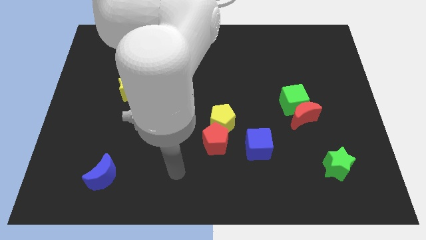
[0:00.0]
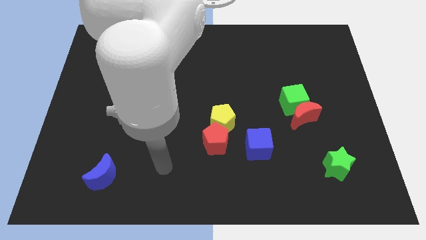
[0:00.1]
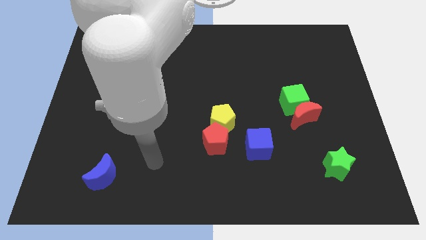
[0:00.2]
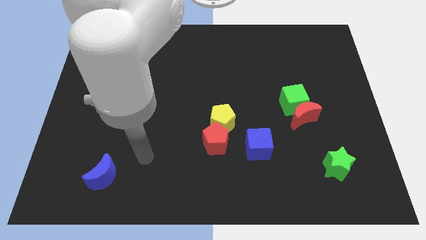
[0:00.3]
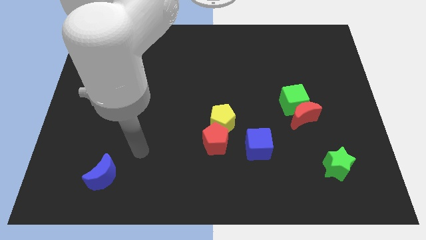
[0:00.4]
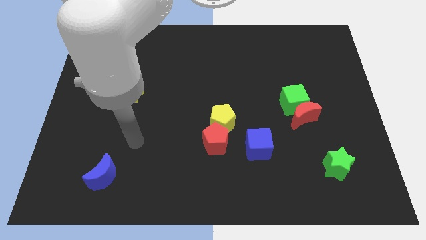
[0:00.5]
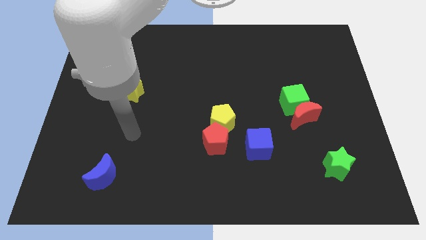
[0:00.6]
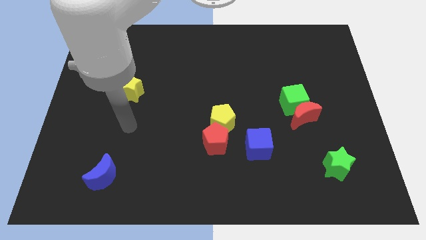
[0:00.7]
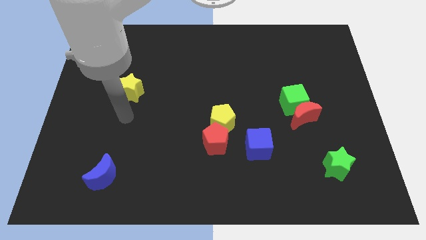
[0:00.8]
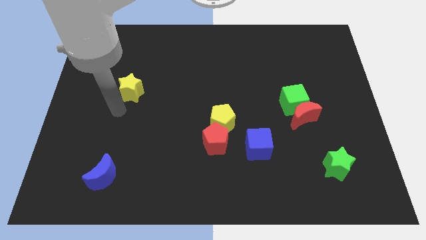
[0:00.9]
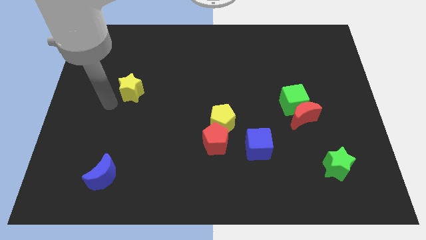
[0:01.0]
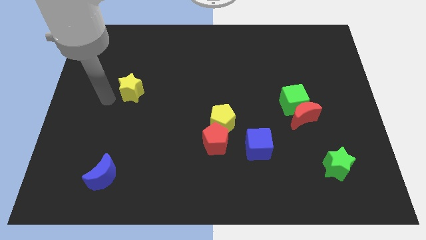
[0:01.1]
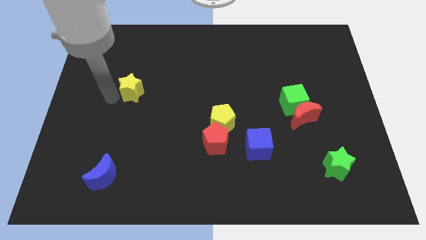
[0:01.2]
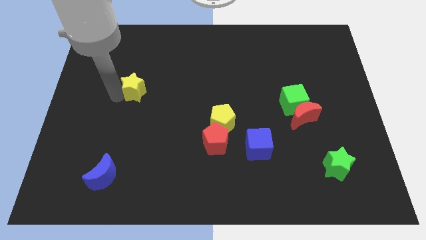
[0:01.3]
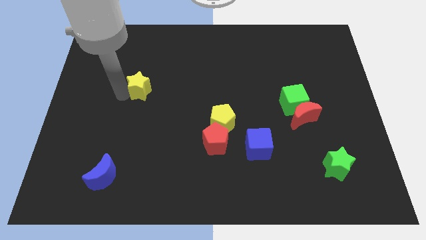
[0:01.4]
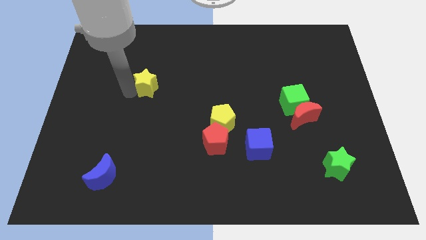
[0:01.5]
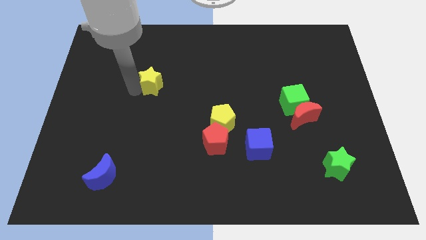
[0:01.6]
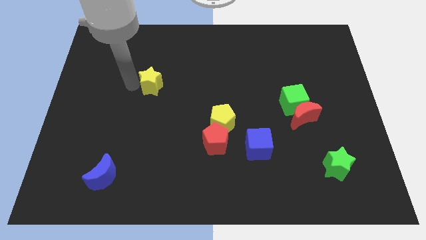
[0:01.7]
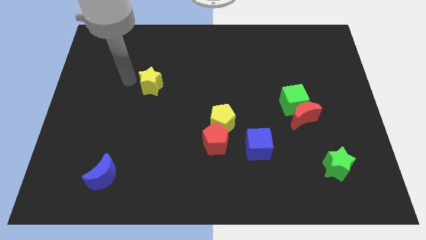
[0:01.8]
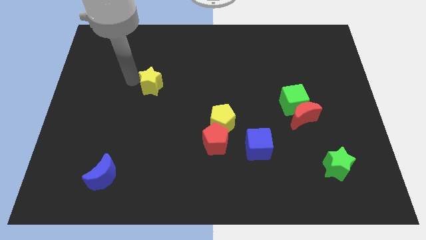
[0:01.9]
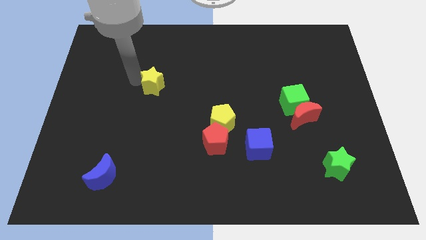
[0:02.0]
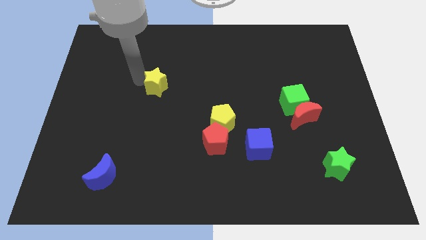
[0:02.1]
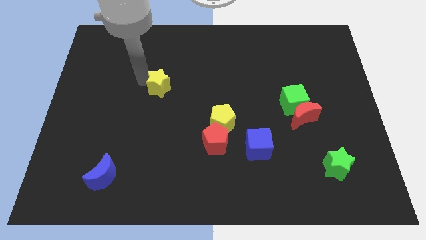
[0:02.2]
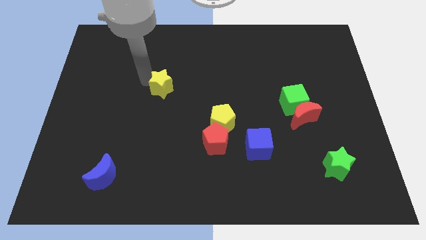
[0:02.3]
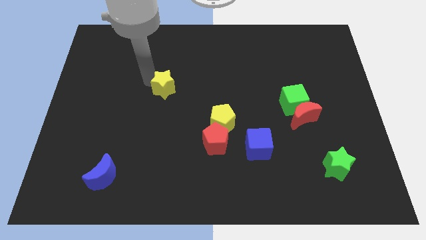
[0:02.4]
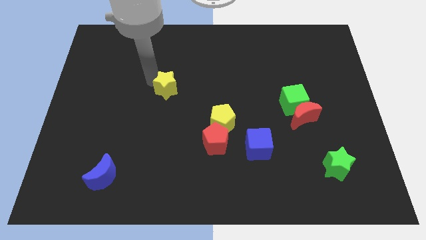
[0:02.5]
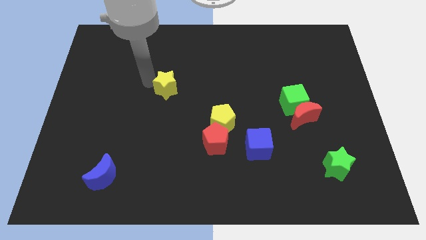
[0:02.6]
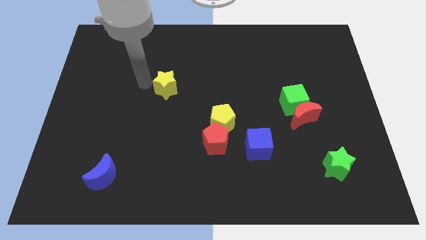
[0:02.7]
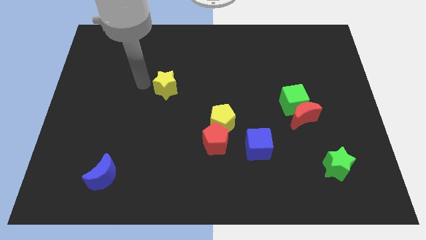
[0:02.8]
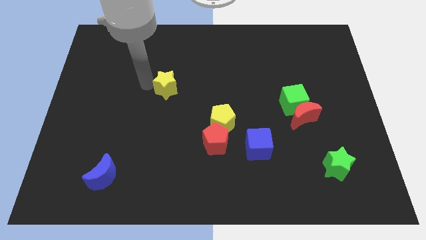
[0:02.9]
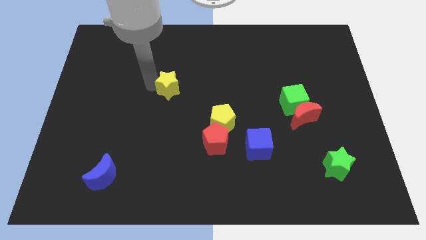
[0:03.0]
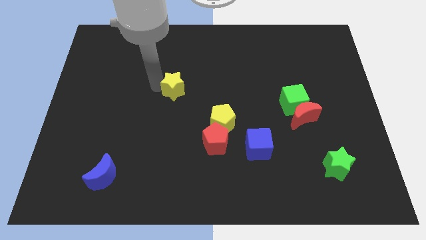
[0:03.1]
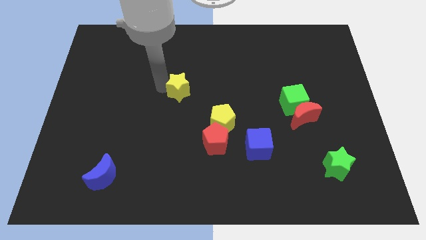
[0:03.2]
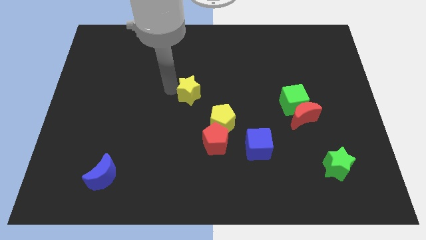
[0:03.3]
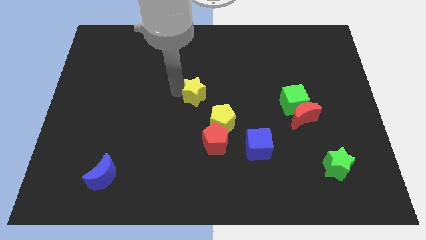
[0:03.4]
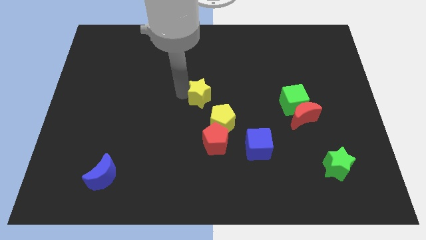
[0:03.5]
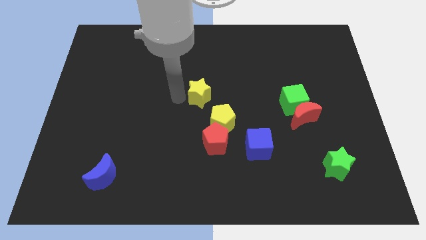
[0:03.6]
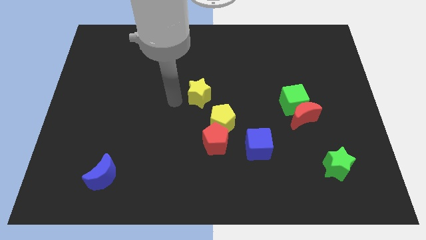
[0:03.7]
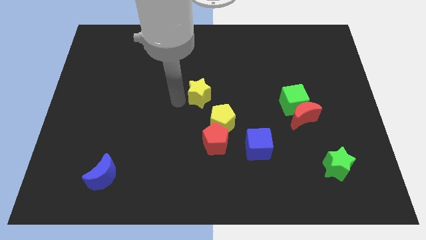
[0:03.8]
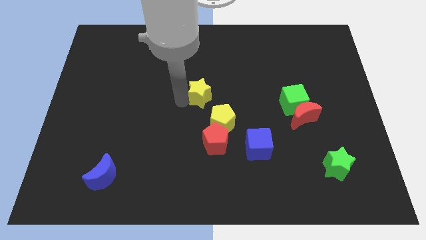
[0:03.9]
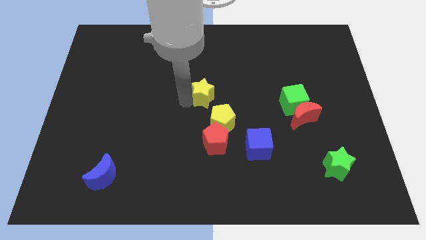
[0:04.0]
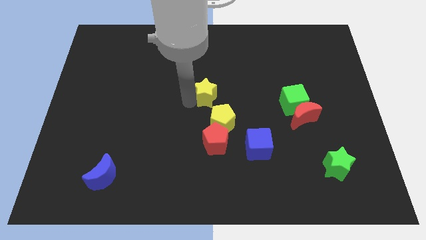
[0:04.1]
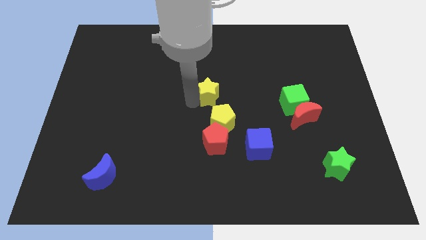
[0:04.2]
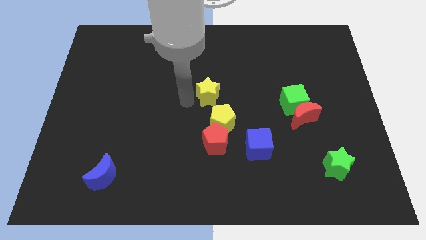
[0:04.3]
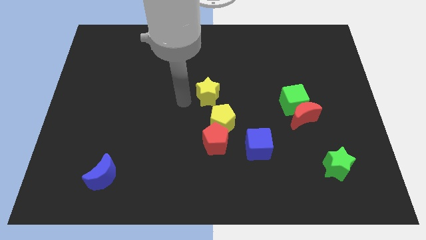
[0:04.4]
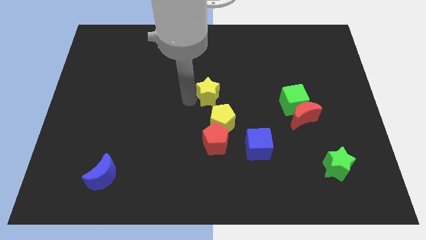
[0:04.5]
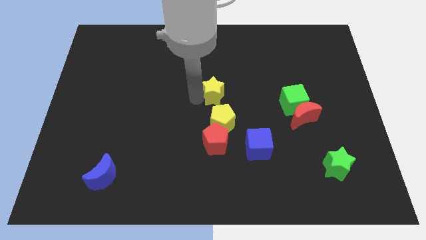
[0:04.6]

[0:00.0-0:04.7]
slide the yellow star right

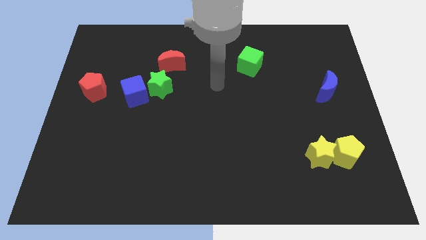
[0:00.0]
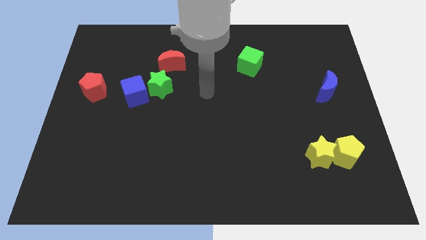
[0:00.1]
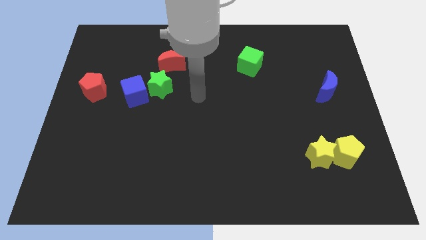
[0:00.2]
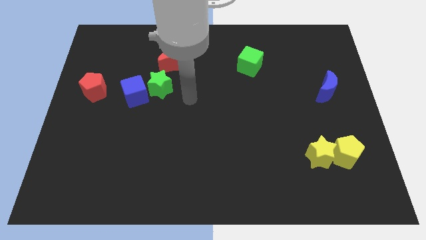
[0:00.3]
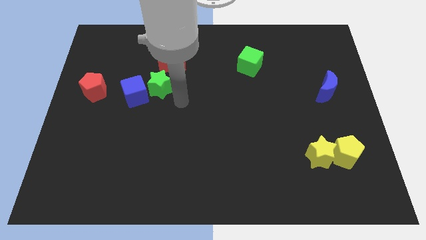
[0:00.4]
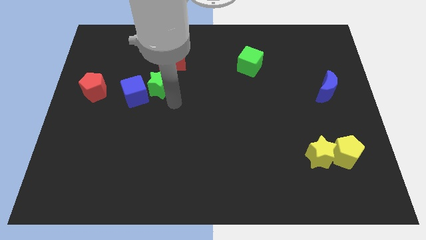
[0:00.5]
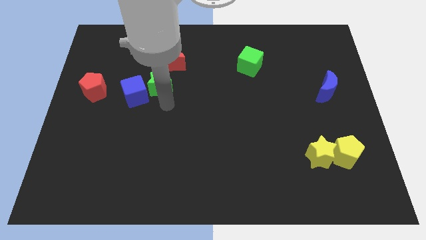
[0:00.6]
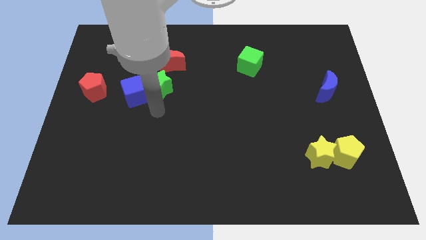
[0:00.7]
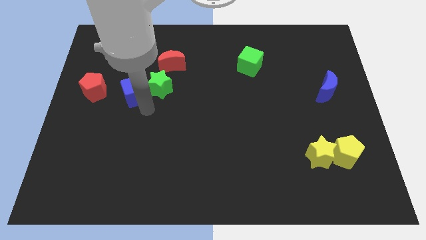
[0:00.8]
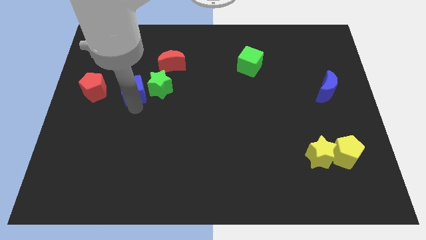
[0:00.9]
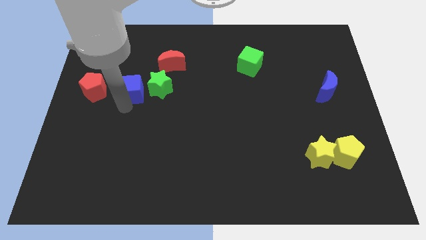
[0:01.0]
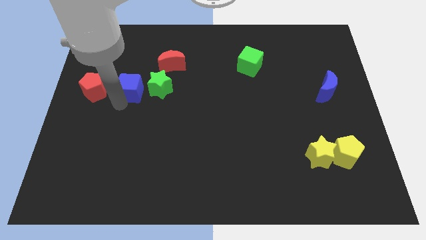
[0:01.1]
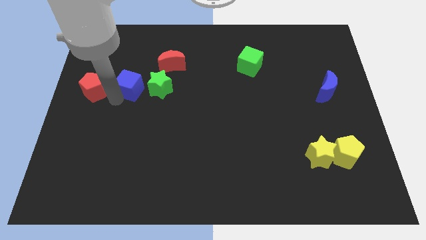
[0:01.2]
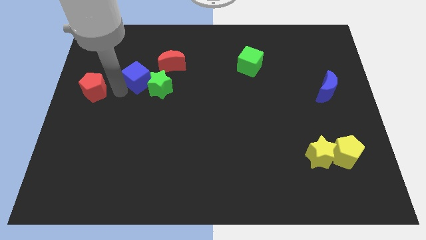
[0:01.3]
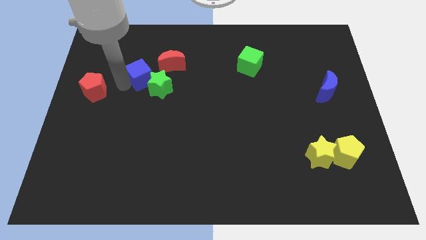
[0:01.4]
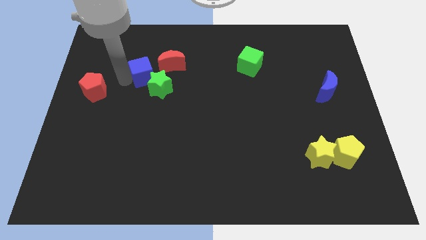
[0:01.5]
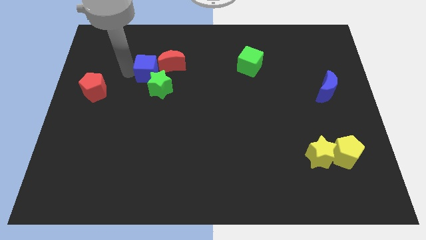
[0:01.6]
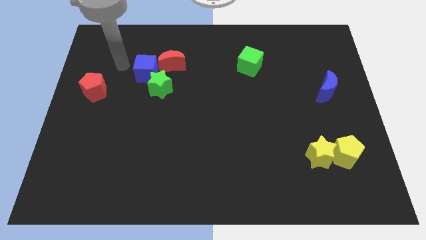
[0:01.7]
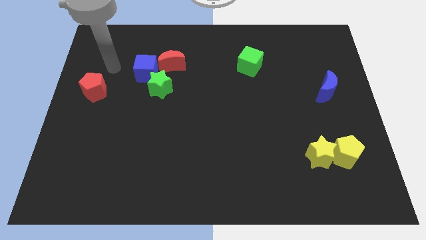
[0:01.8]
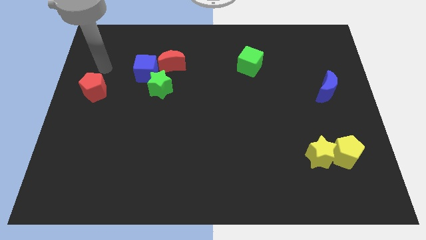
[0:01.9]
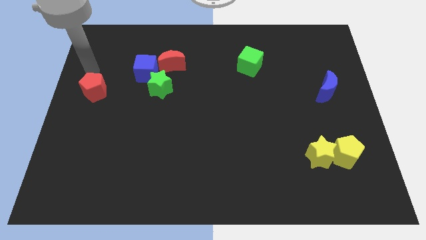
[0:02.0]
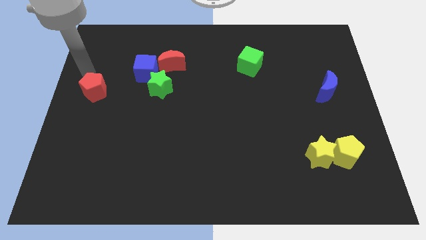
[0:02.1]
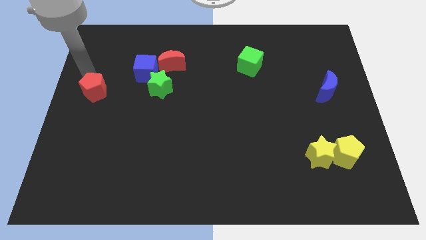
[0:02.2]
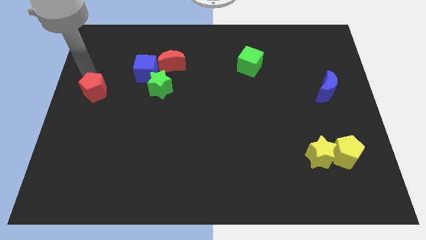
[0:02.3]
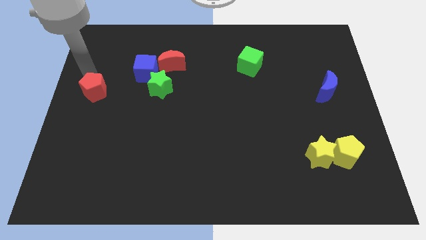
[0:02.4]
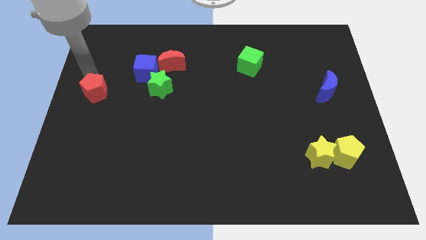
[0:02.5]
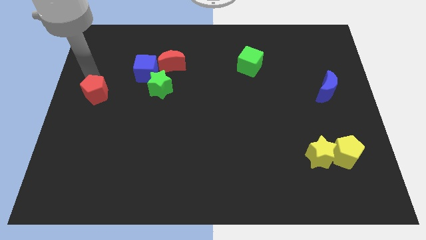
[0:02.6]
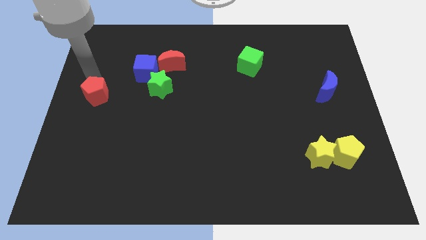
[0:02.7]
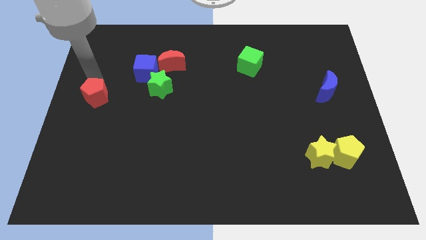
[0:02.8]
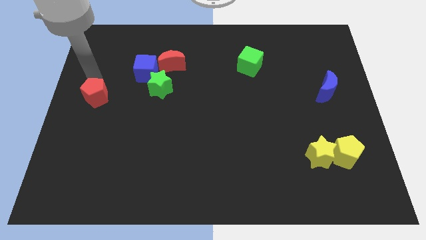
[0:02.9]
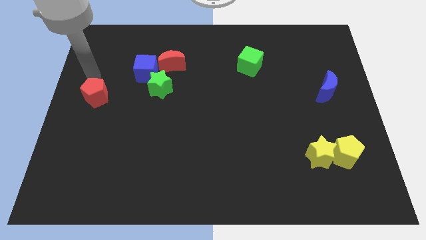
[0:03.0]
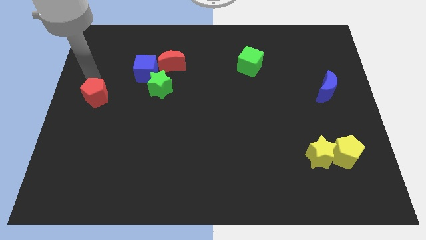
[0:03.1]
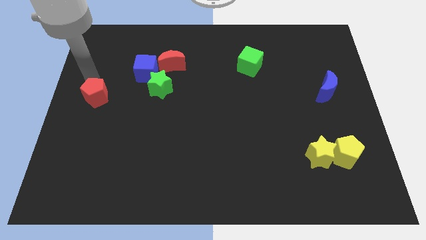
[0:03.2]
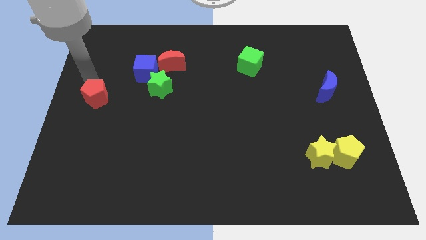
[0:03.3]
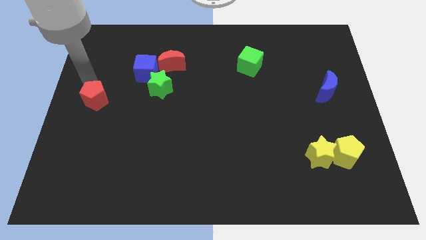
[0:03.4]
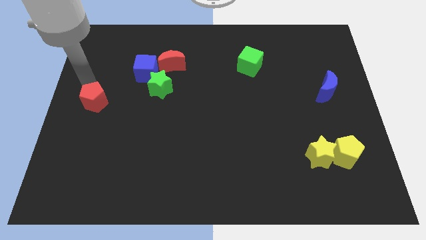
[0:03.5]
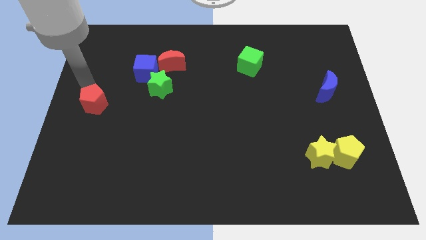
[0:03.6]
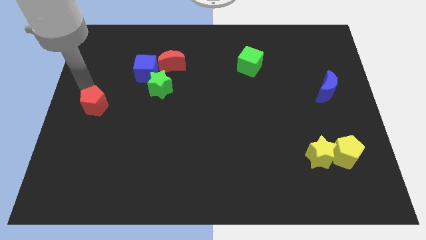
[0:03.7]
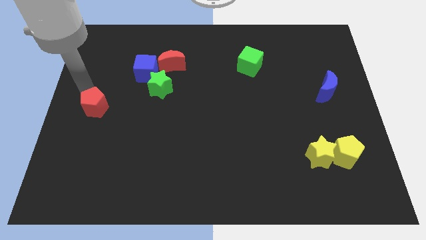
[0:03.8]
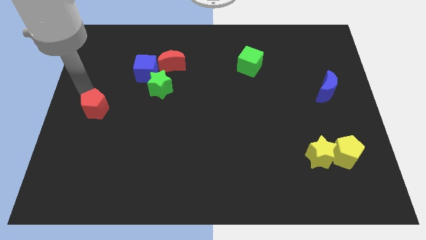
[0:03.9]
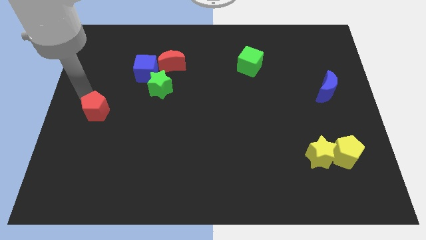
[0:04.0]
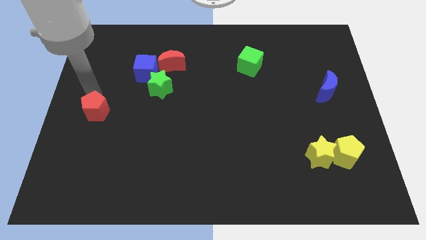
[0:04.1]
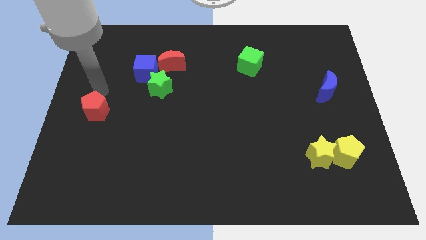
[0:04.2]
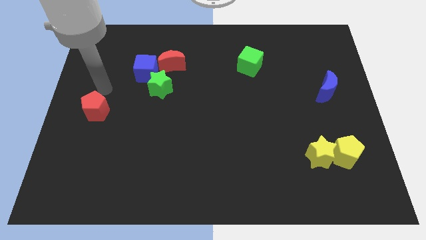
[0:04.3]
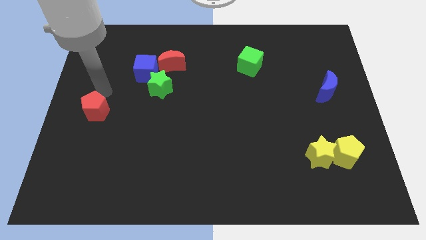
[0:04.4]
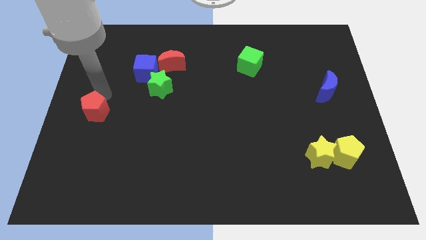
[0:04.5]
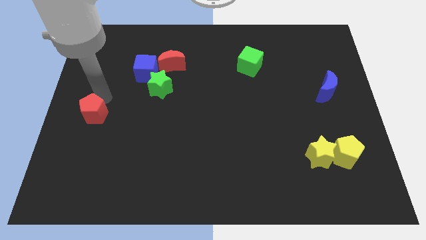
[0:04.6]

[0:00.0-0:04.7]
slightly slide the red pentagon downwards
